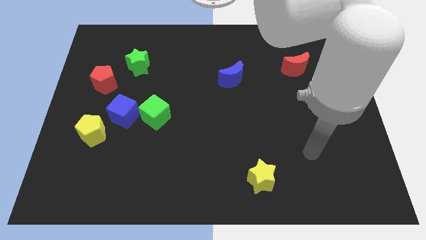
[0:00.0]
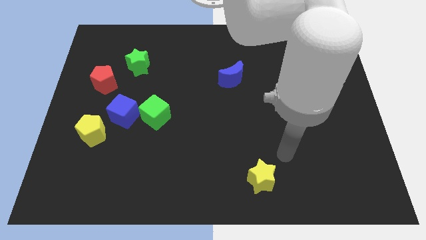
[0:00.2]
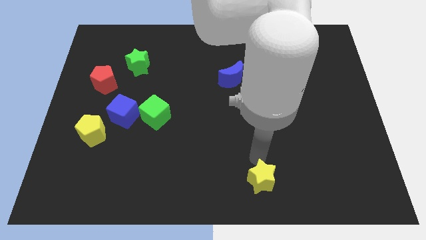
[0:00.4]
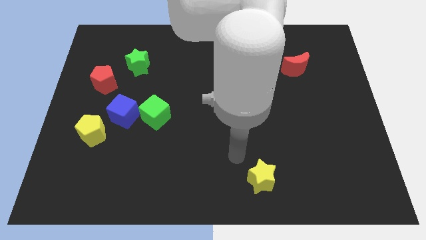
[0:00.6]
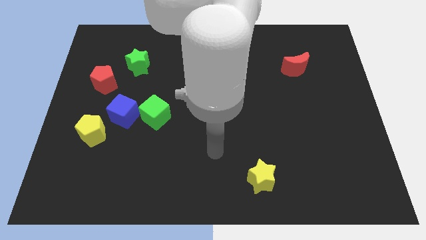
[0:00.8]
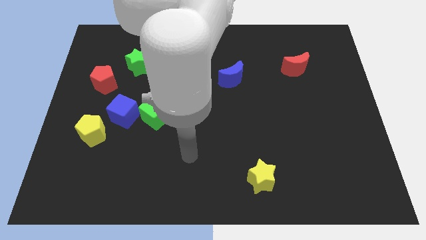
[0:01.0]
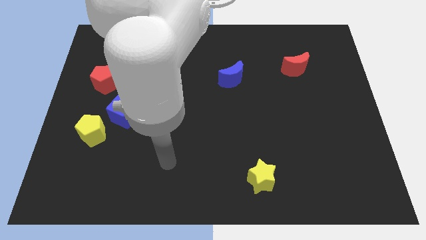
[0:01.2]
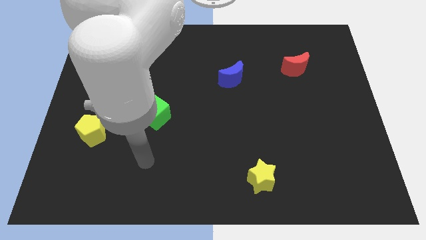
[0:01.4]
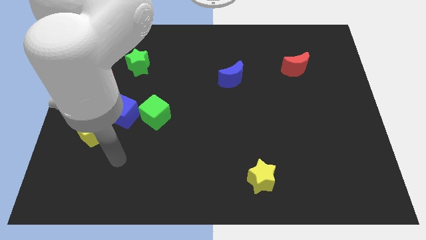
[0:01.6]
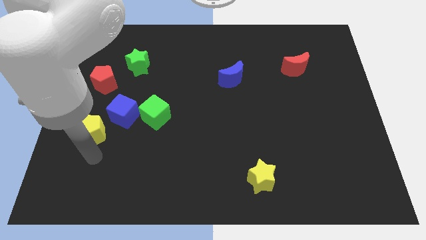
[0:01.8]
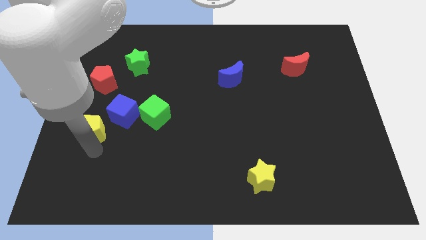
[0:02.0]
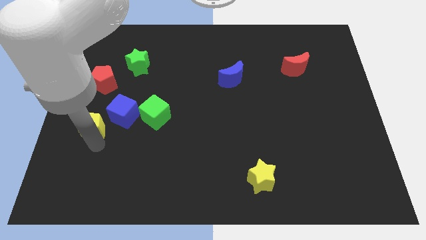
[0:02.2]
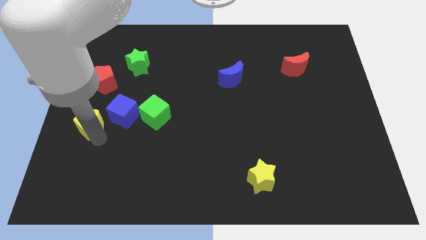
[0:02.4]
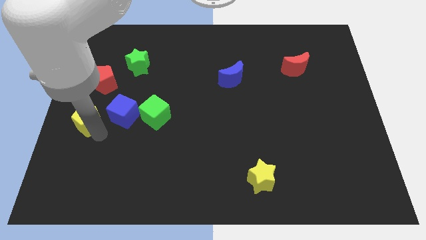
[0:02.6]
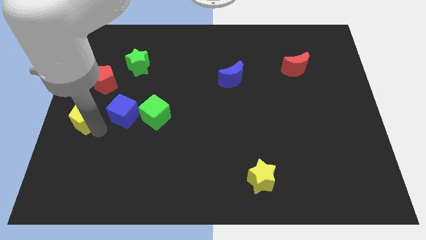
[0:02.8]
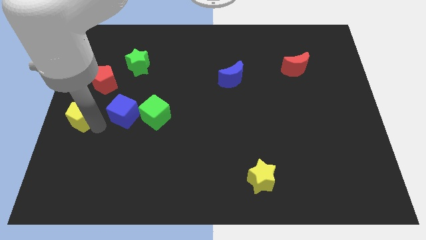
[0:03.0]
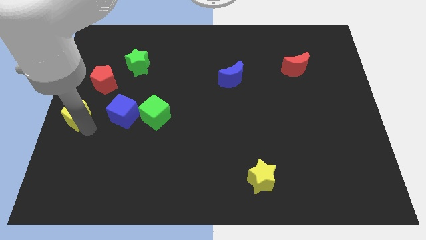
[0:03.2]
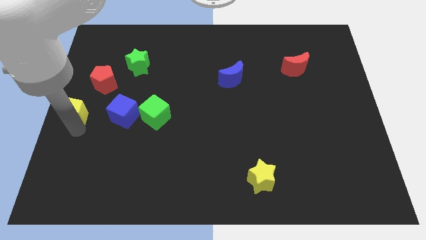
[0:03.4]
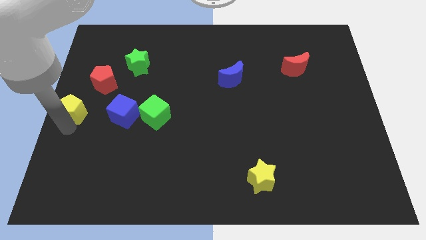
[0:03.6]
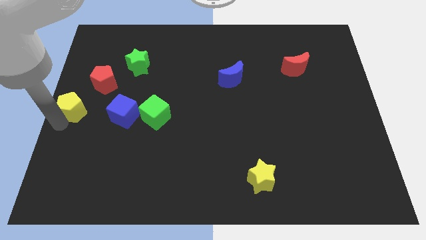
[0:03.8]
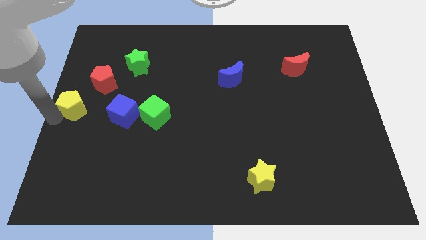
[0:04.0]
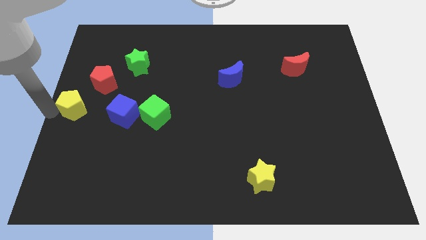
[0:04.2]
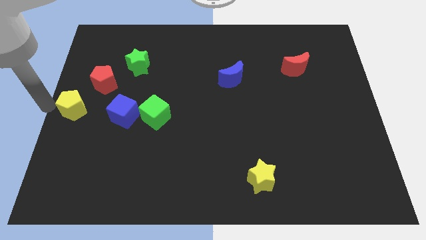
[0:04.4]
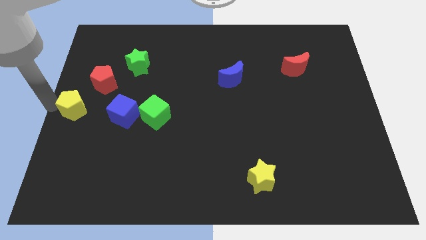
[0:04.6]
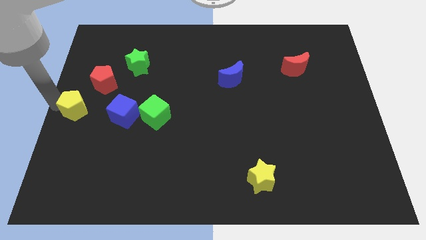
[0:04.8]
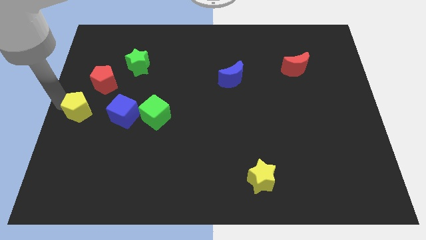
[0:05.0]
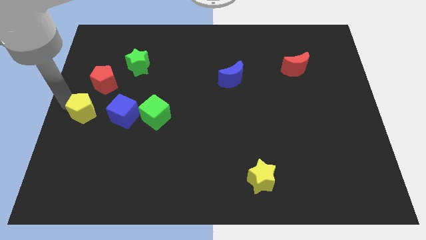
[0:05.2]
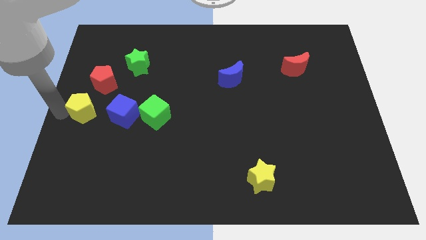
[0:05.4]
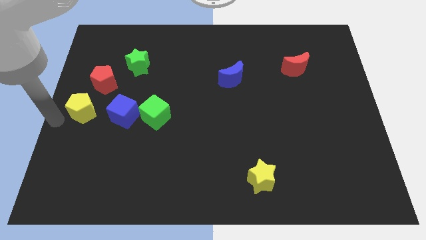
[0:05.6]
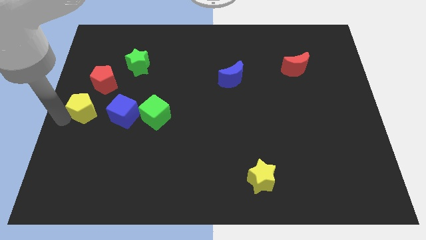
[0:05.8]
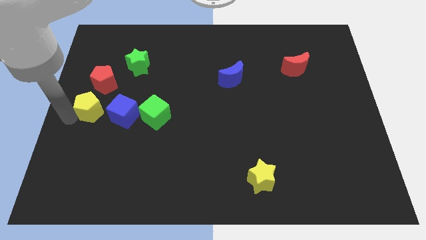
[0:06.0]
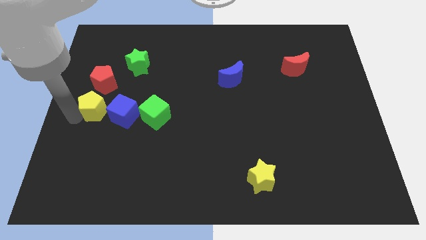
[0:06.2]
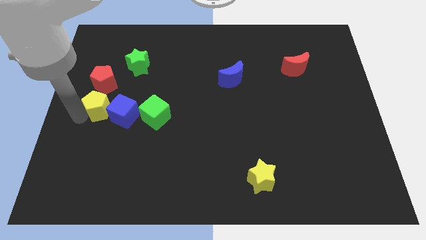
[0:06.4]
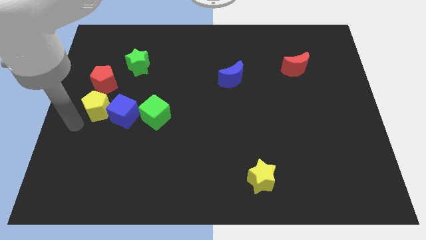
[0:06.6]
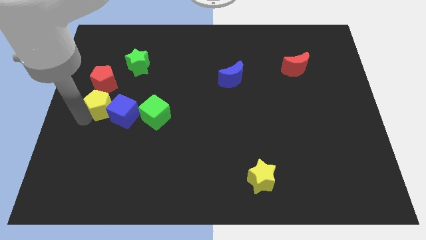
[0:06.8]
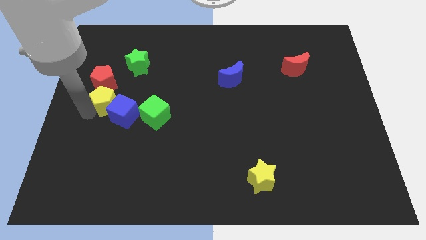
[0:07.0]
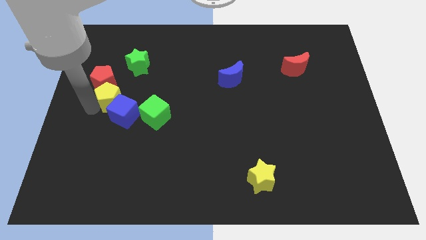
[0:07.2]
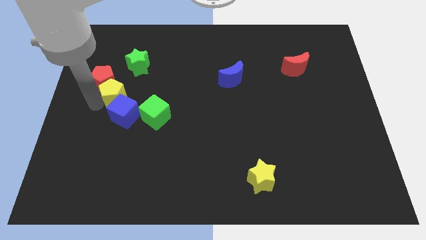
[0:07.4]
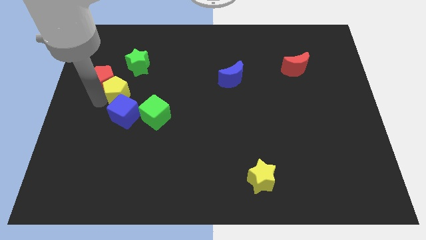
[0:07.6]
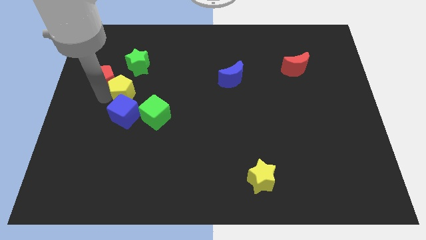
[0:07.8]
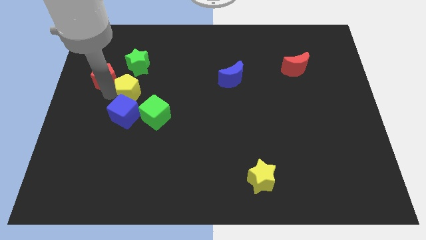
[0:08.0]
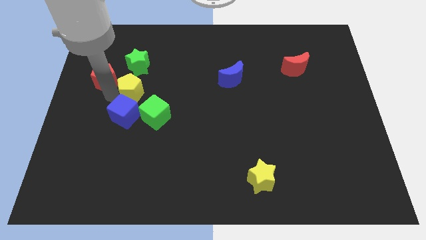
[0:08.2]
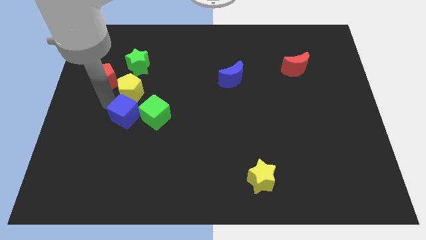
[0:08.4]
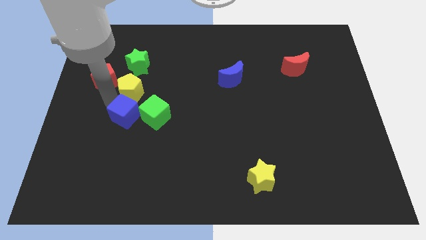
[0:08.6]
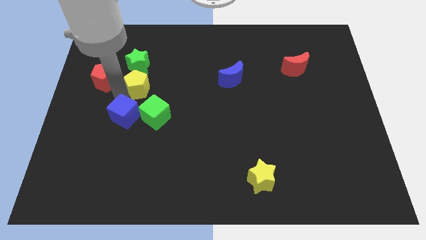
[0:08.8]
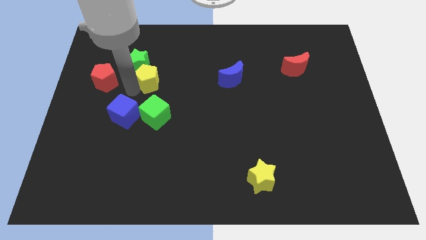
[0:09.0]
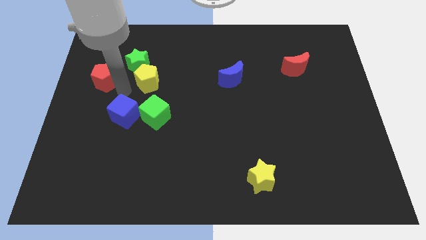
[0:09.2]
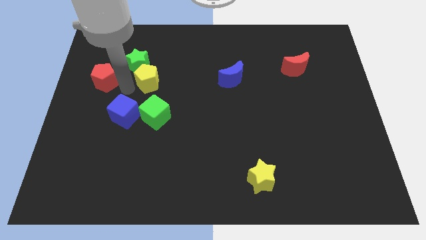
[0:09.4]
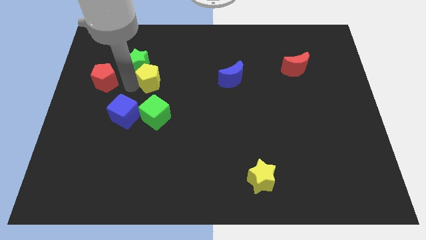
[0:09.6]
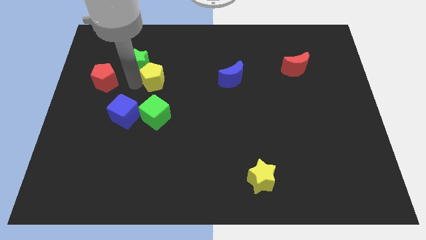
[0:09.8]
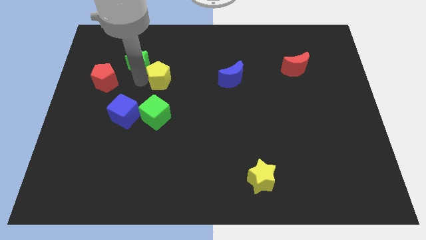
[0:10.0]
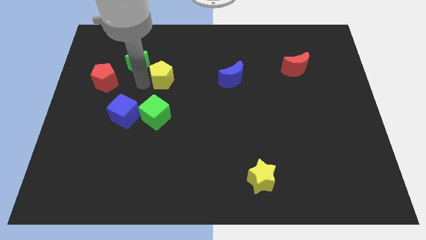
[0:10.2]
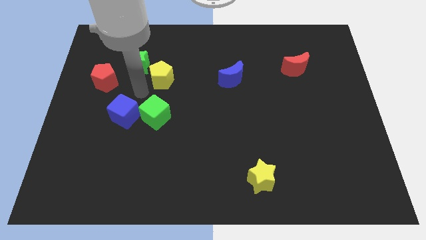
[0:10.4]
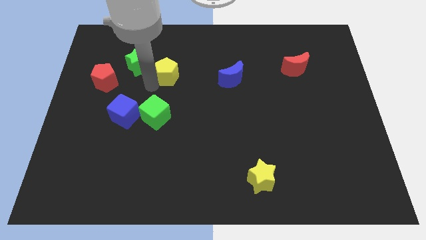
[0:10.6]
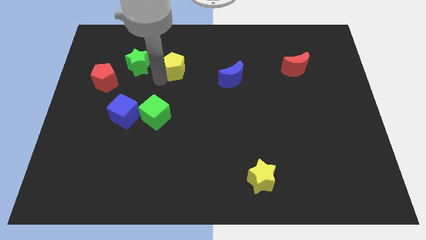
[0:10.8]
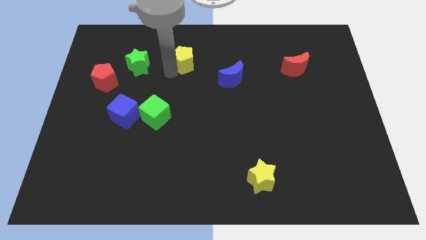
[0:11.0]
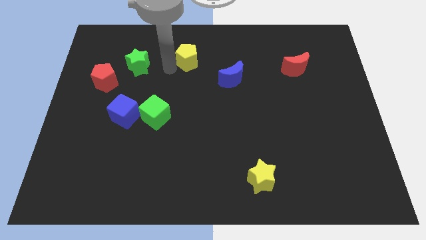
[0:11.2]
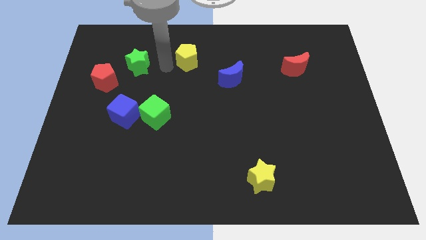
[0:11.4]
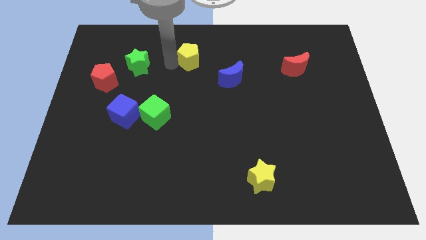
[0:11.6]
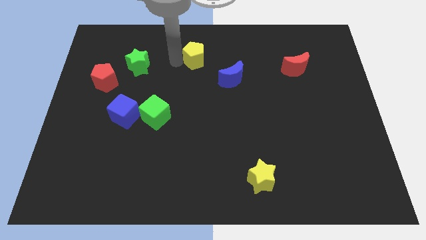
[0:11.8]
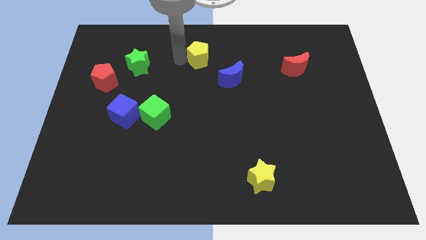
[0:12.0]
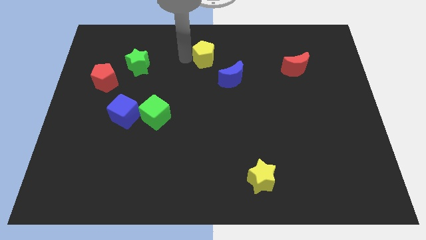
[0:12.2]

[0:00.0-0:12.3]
slide the yellow pentagon to the top side
